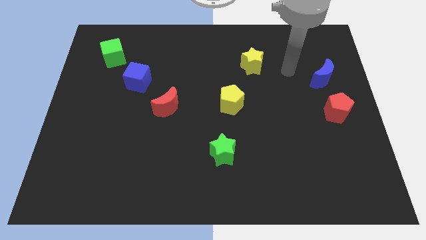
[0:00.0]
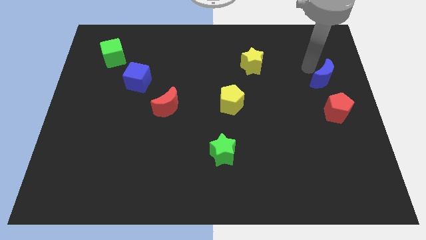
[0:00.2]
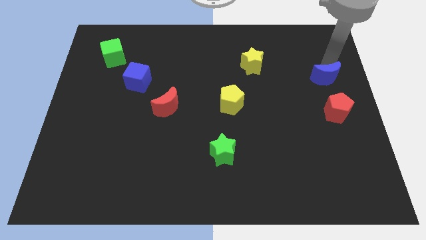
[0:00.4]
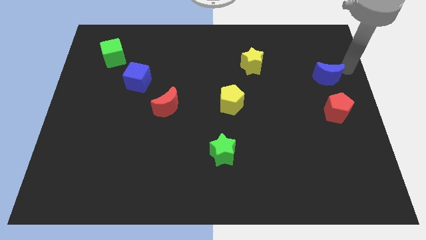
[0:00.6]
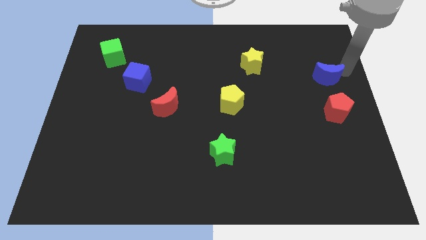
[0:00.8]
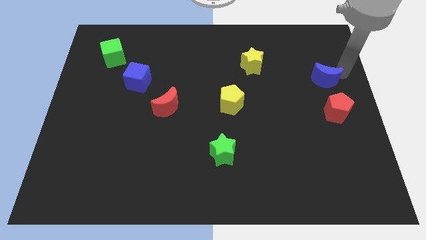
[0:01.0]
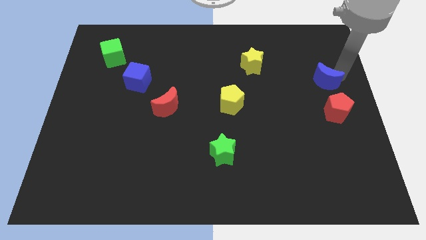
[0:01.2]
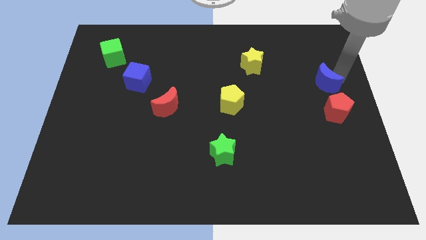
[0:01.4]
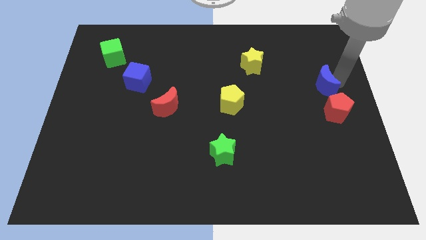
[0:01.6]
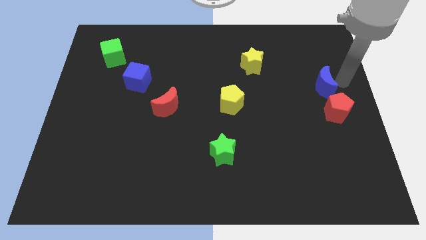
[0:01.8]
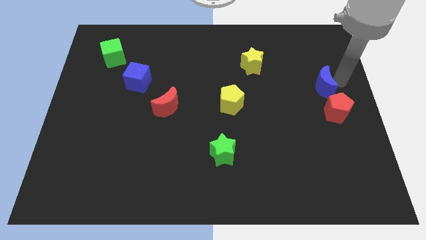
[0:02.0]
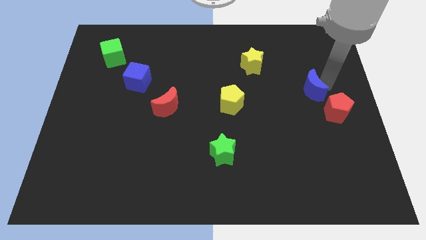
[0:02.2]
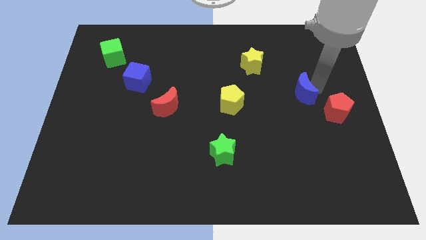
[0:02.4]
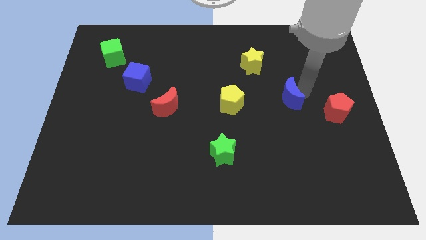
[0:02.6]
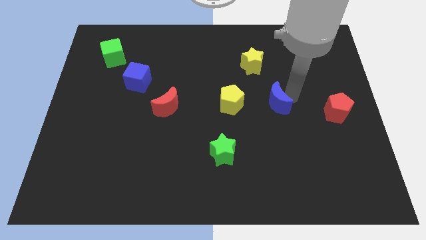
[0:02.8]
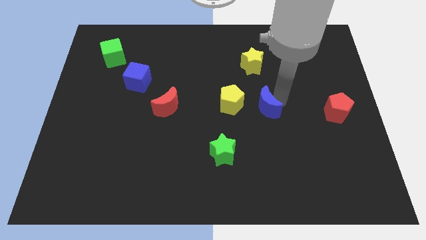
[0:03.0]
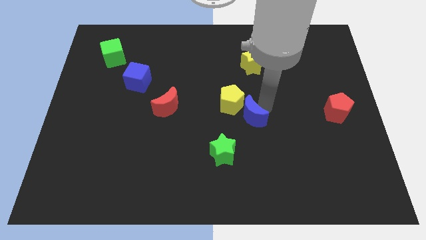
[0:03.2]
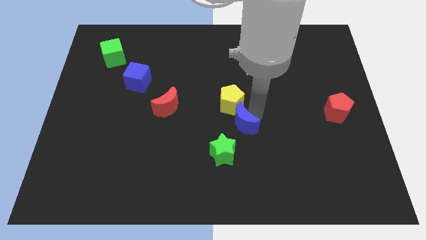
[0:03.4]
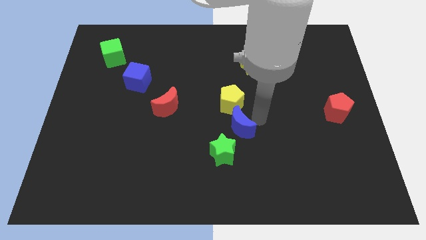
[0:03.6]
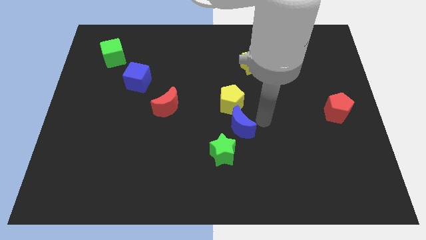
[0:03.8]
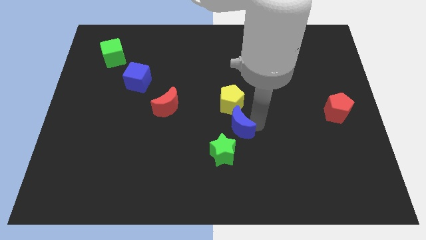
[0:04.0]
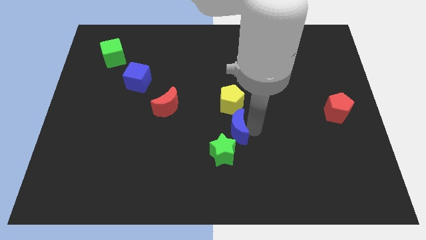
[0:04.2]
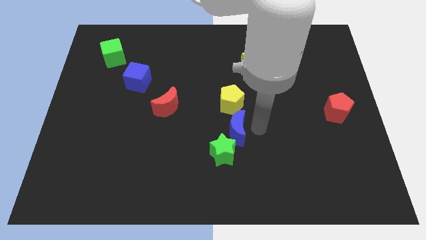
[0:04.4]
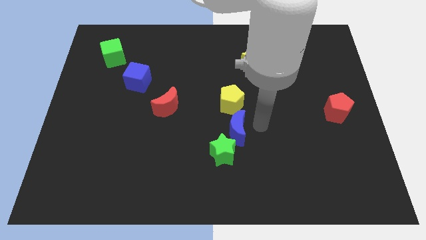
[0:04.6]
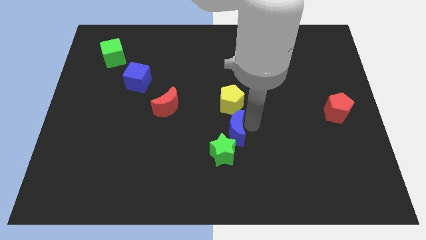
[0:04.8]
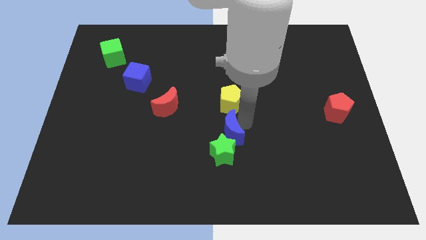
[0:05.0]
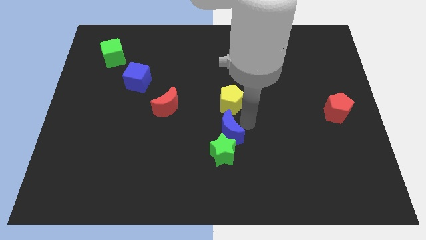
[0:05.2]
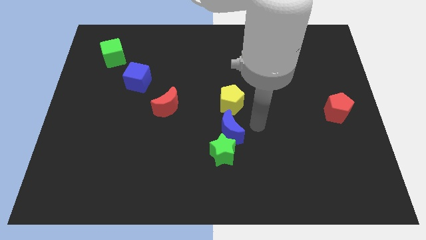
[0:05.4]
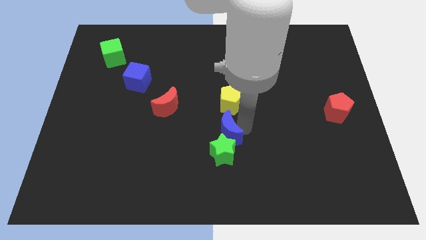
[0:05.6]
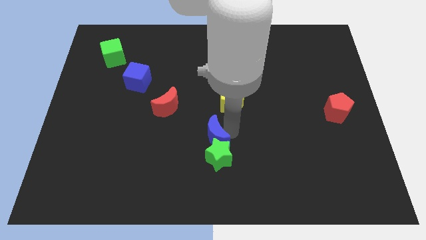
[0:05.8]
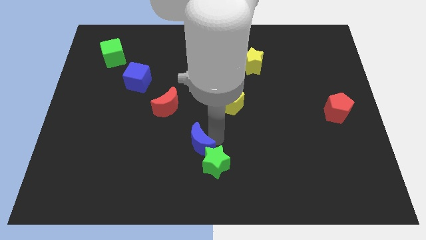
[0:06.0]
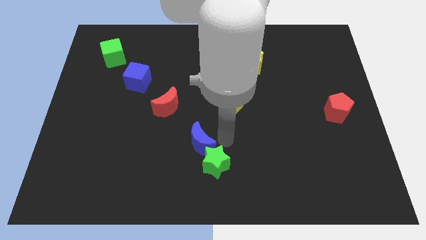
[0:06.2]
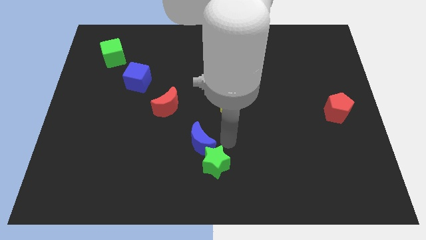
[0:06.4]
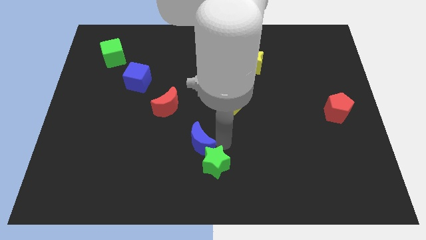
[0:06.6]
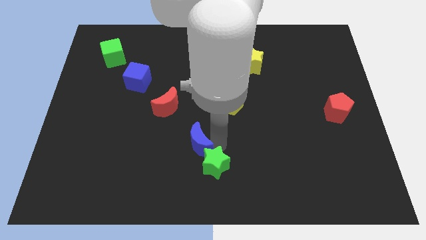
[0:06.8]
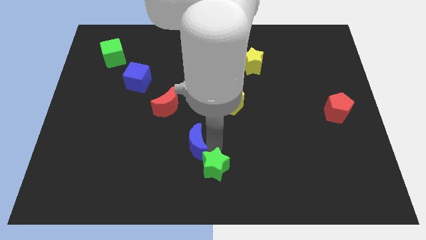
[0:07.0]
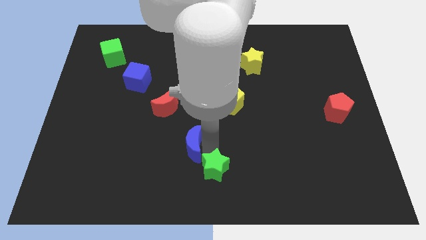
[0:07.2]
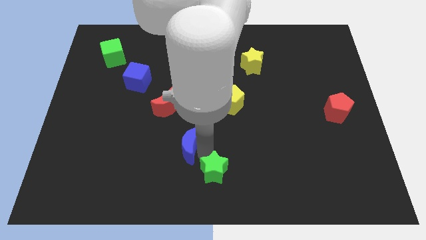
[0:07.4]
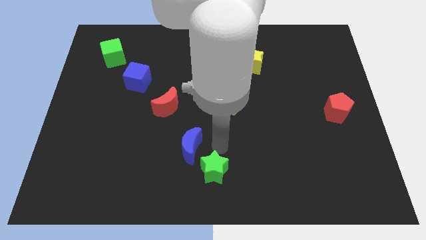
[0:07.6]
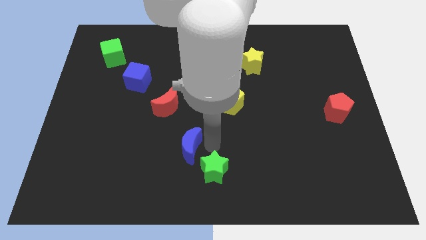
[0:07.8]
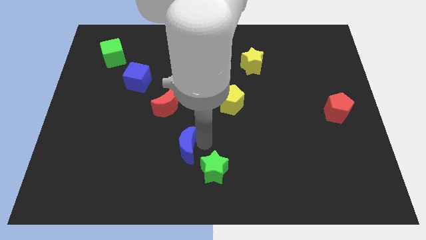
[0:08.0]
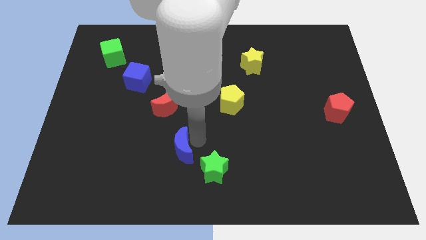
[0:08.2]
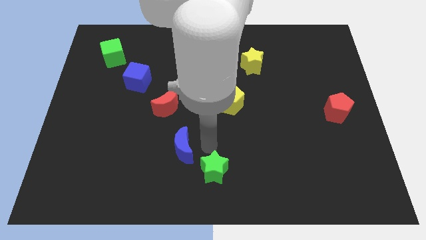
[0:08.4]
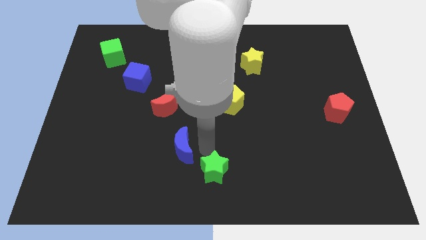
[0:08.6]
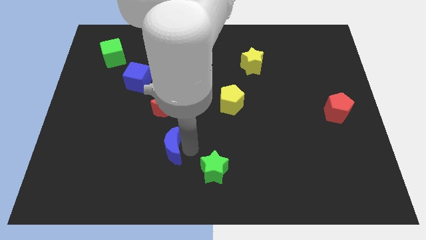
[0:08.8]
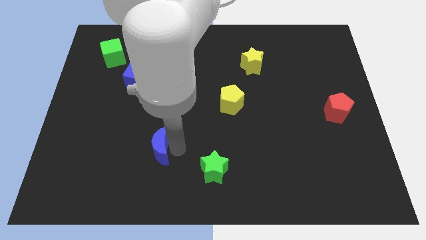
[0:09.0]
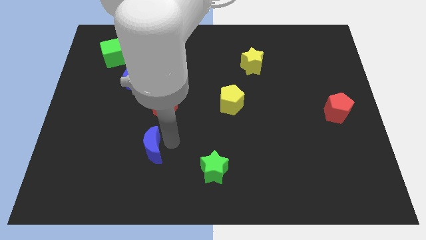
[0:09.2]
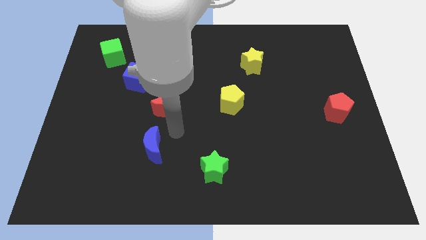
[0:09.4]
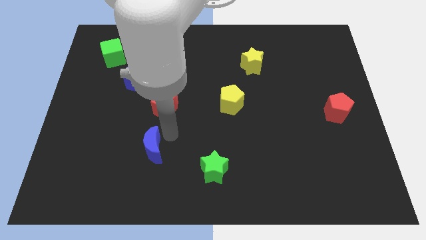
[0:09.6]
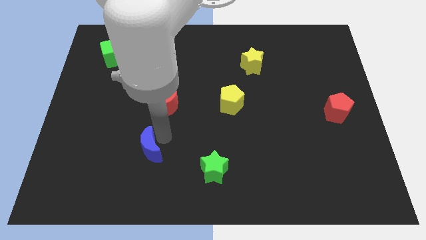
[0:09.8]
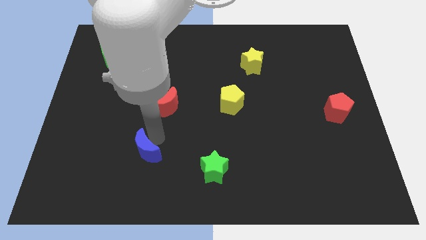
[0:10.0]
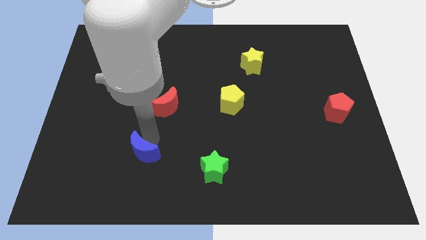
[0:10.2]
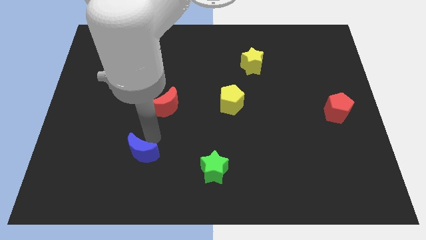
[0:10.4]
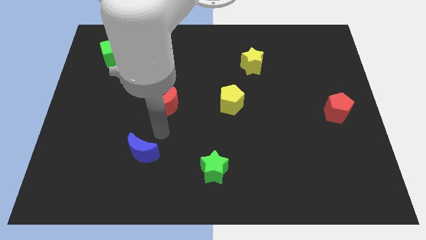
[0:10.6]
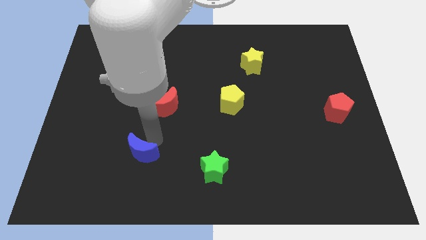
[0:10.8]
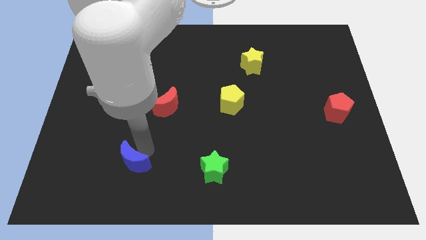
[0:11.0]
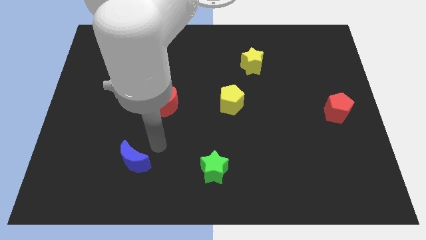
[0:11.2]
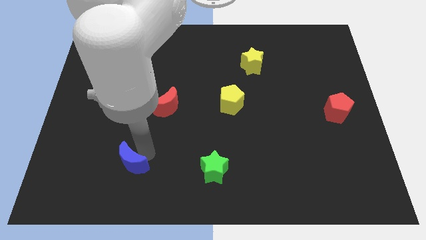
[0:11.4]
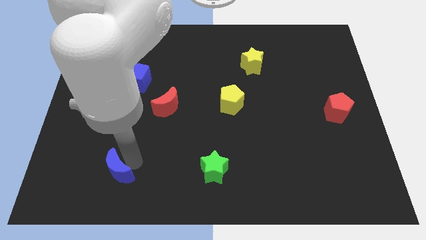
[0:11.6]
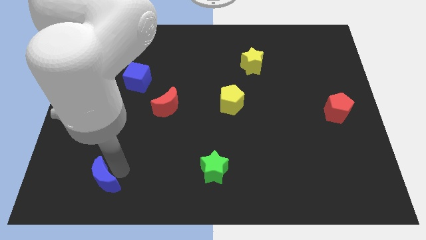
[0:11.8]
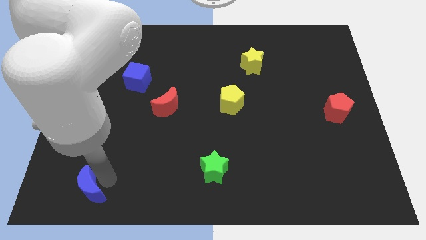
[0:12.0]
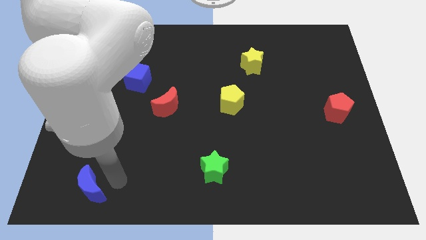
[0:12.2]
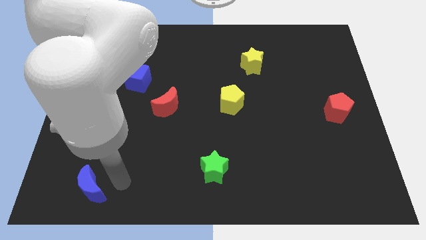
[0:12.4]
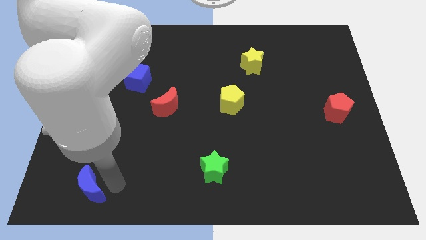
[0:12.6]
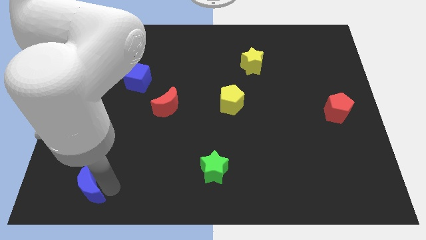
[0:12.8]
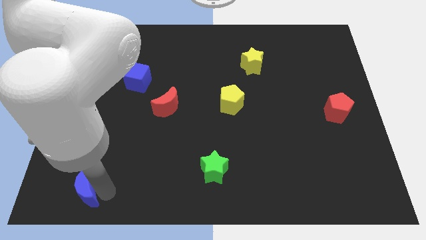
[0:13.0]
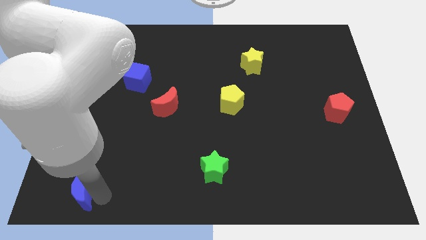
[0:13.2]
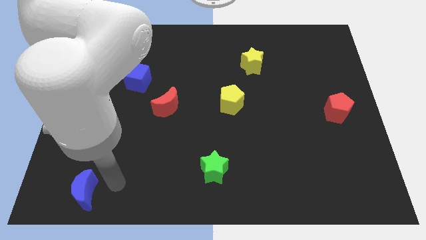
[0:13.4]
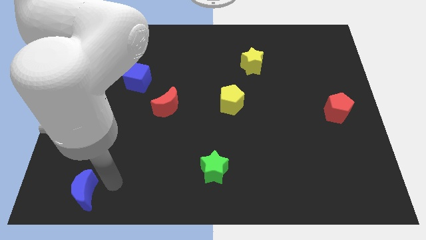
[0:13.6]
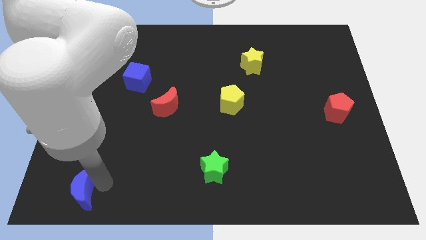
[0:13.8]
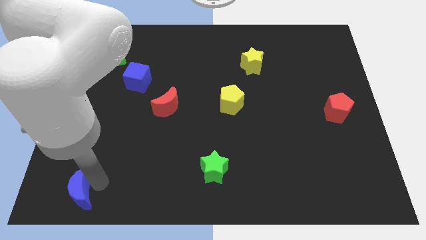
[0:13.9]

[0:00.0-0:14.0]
put the blue moon to the bottom left
